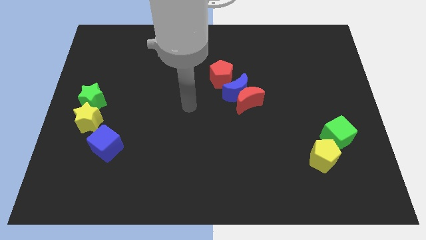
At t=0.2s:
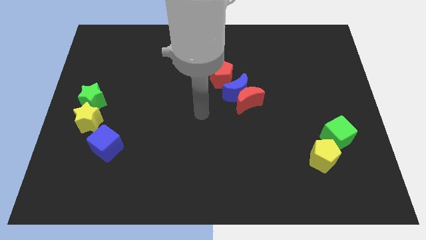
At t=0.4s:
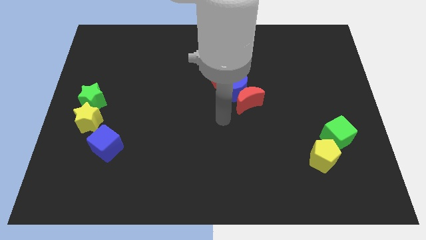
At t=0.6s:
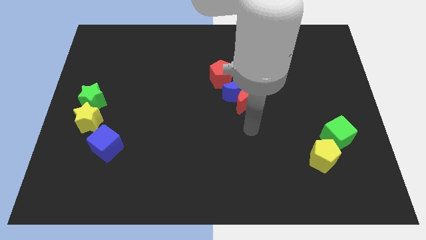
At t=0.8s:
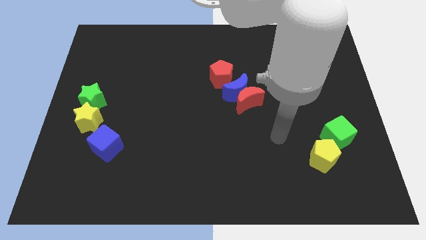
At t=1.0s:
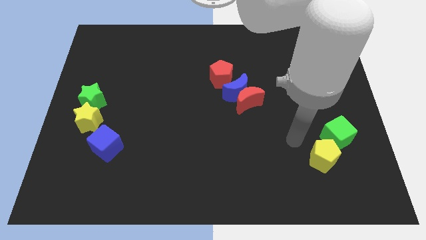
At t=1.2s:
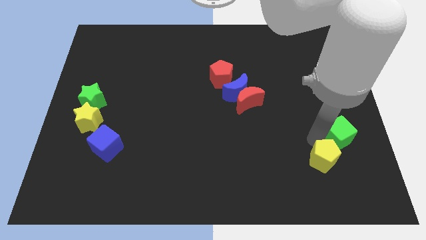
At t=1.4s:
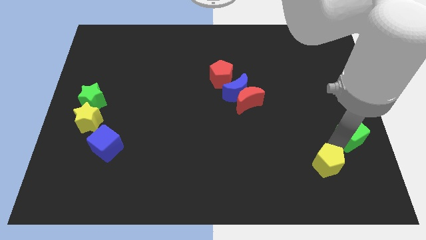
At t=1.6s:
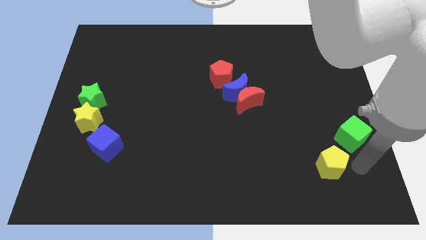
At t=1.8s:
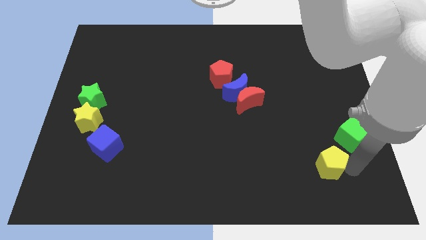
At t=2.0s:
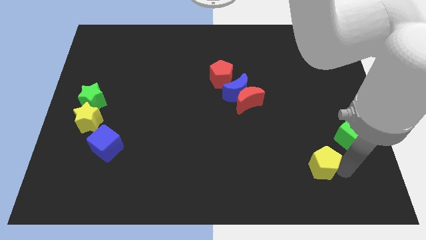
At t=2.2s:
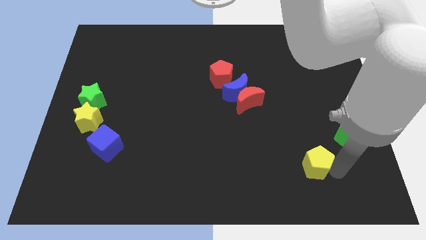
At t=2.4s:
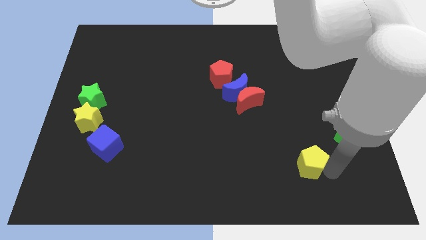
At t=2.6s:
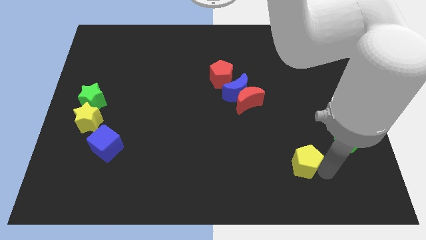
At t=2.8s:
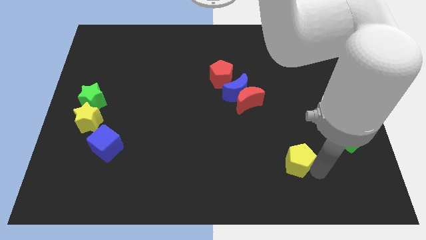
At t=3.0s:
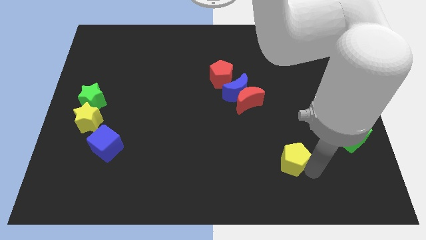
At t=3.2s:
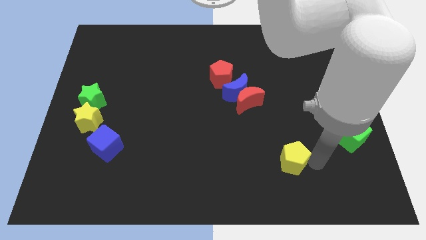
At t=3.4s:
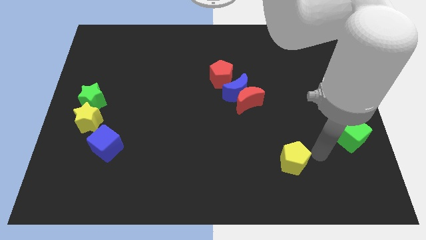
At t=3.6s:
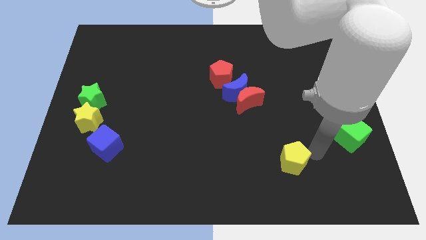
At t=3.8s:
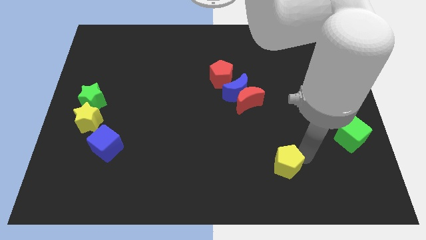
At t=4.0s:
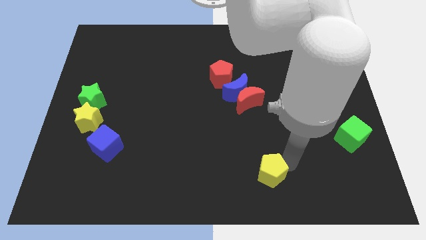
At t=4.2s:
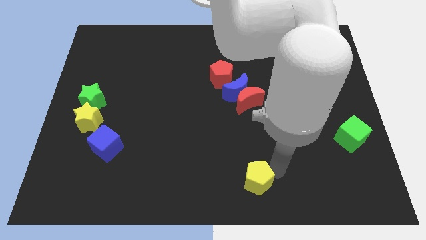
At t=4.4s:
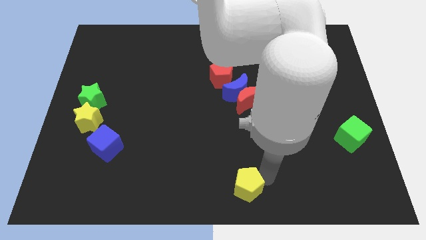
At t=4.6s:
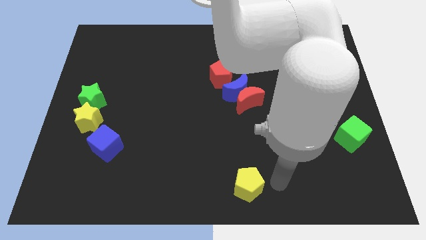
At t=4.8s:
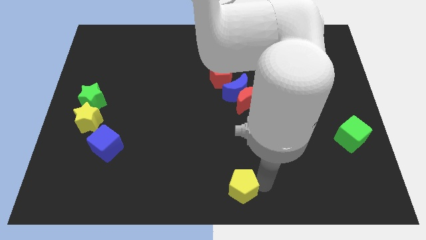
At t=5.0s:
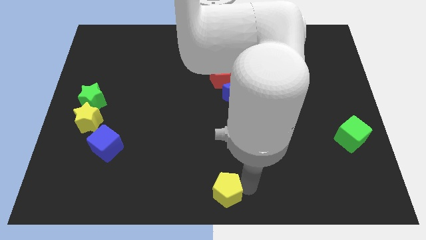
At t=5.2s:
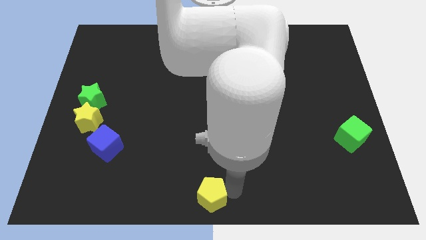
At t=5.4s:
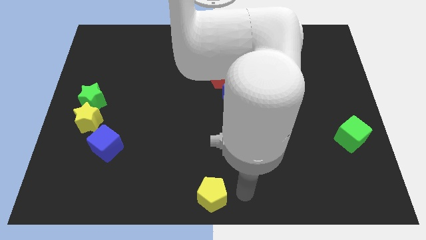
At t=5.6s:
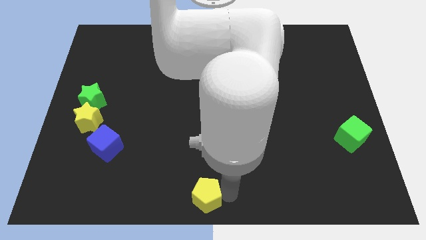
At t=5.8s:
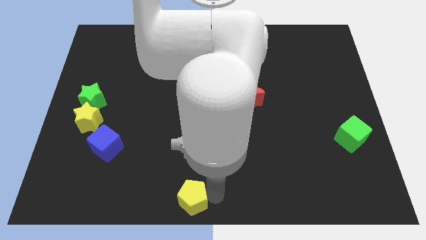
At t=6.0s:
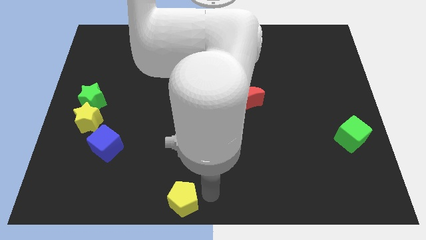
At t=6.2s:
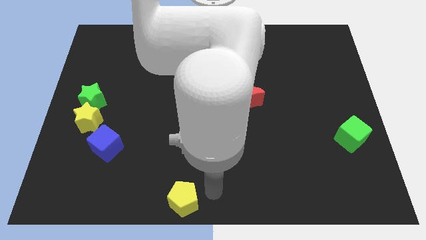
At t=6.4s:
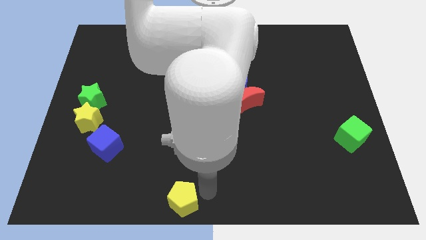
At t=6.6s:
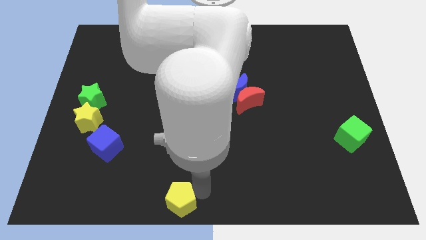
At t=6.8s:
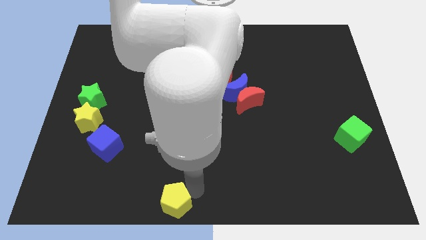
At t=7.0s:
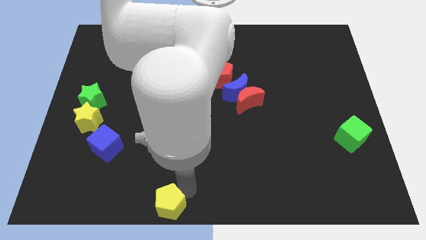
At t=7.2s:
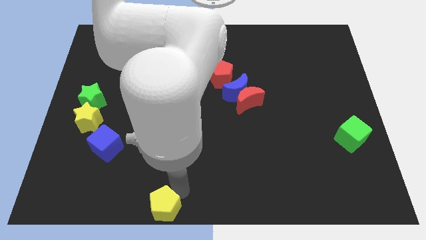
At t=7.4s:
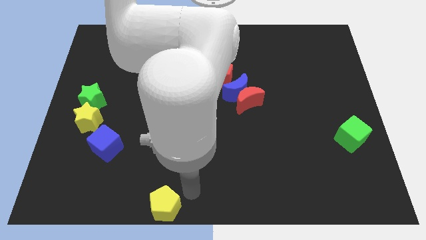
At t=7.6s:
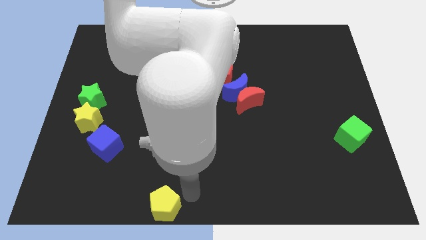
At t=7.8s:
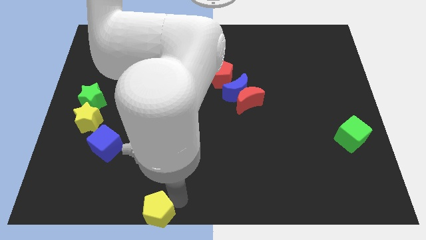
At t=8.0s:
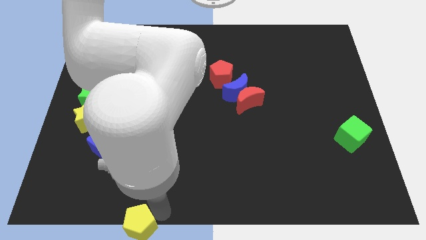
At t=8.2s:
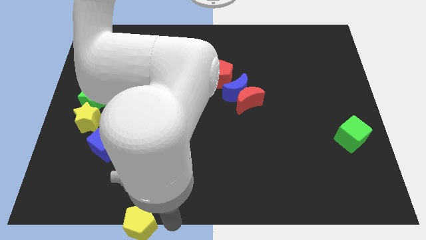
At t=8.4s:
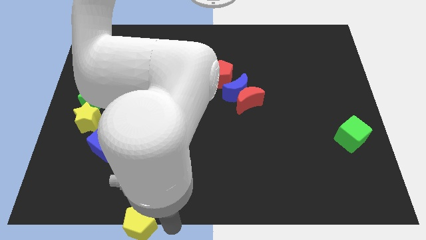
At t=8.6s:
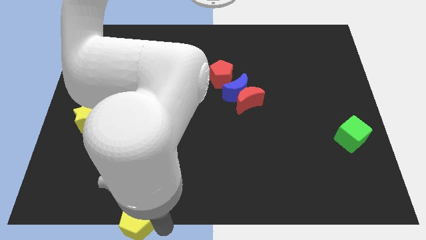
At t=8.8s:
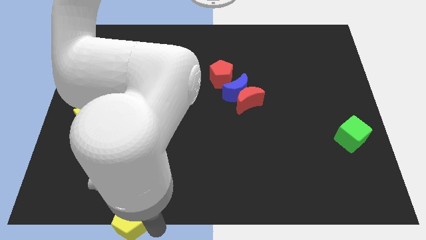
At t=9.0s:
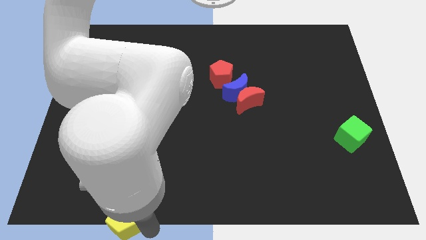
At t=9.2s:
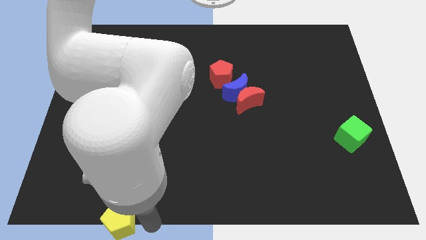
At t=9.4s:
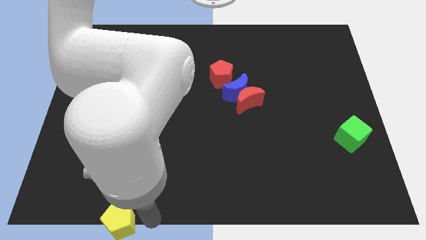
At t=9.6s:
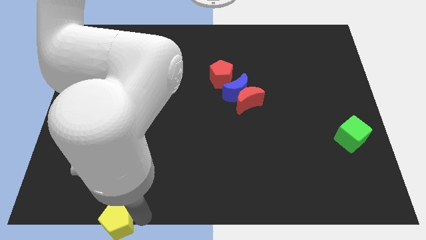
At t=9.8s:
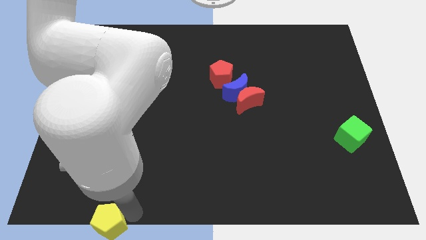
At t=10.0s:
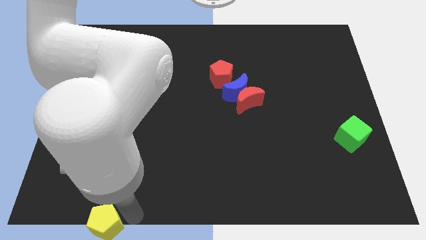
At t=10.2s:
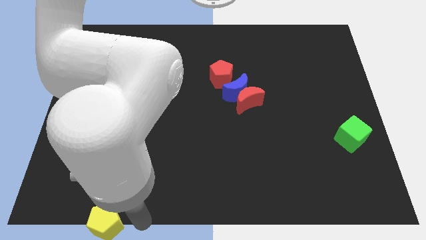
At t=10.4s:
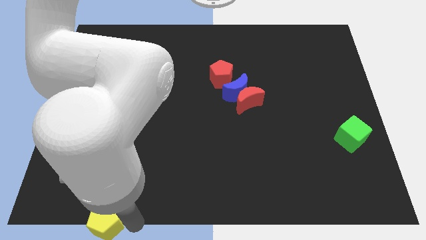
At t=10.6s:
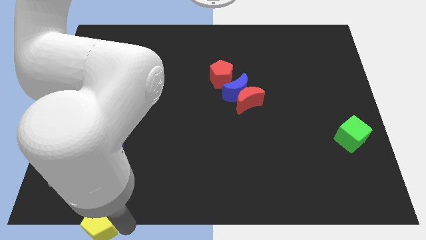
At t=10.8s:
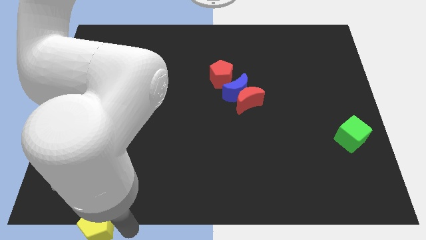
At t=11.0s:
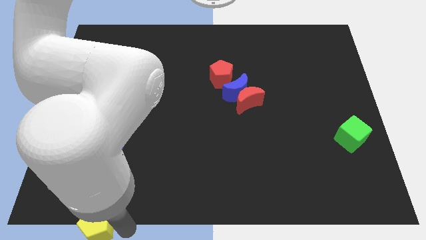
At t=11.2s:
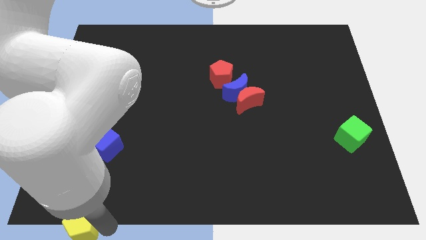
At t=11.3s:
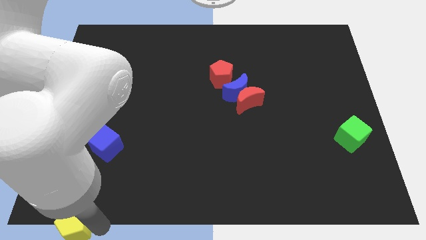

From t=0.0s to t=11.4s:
push the yellow pentagon to the bottom left of the board
